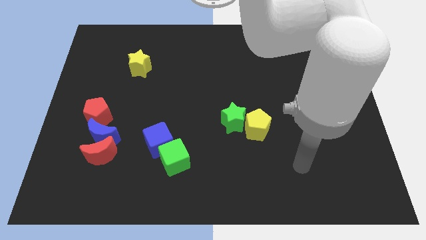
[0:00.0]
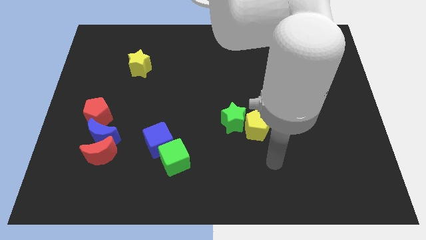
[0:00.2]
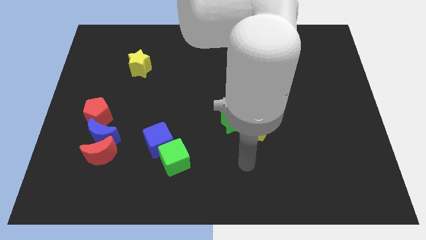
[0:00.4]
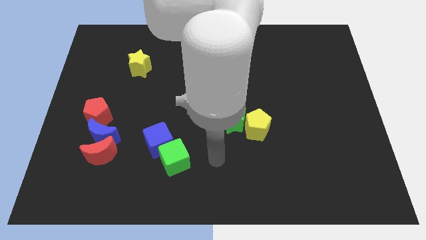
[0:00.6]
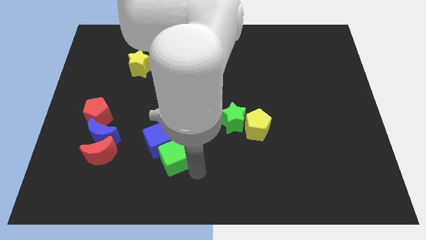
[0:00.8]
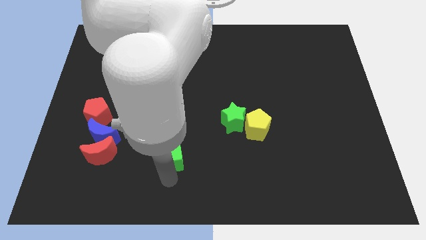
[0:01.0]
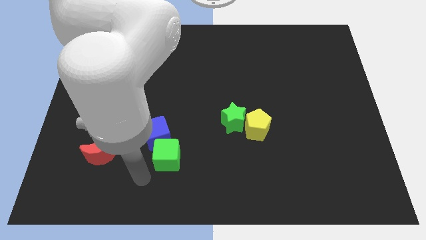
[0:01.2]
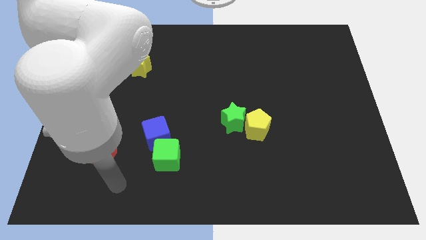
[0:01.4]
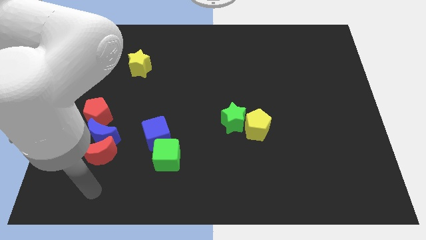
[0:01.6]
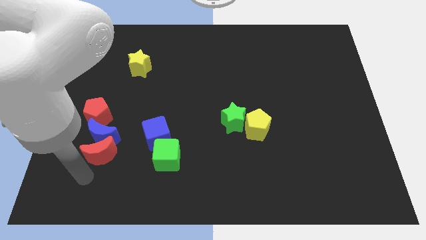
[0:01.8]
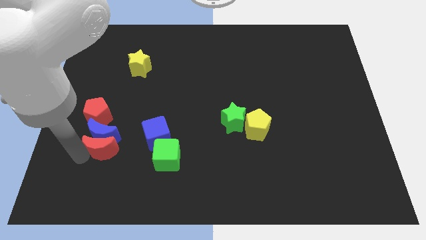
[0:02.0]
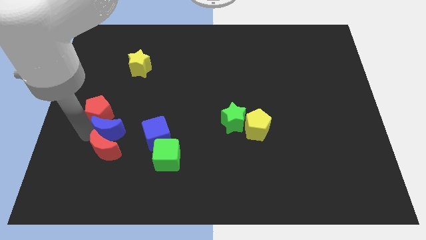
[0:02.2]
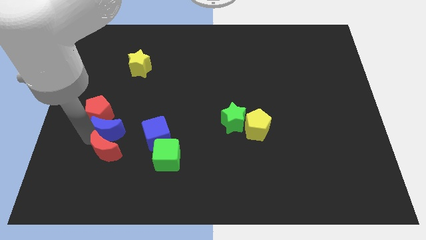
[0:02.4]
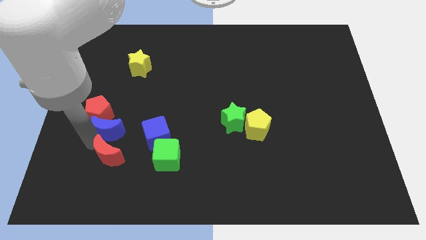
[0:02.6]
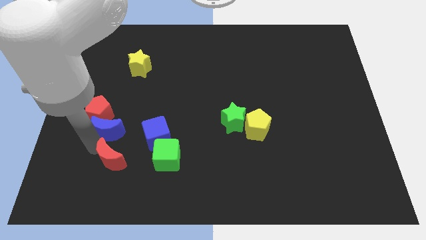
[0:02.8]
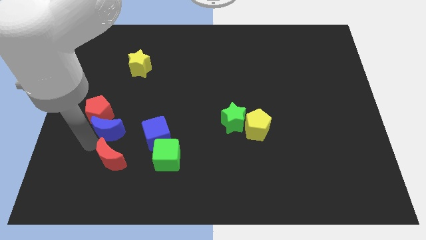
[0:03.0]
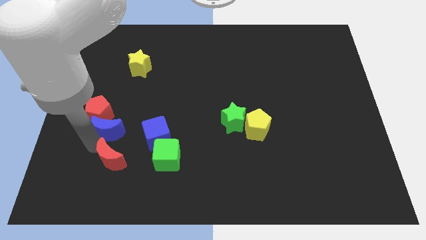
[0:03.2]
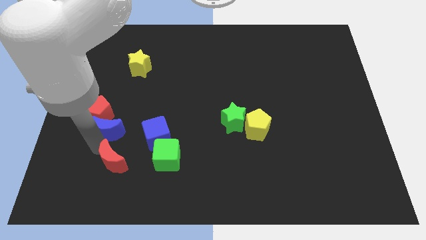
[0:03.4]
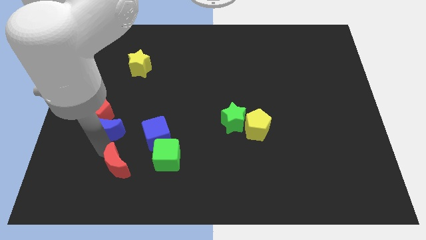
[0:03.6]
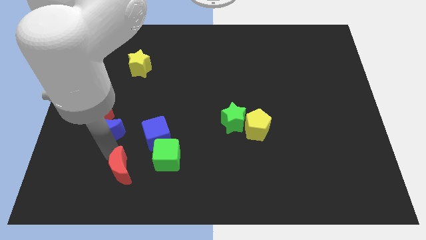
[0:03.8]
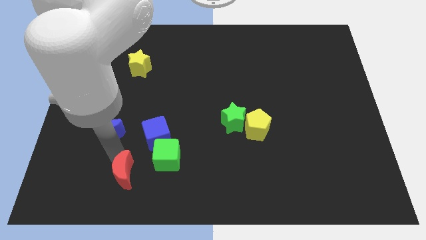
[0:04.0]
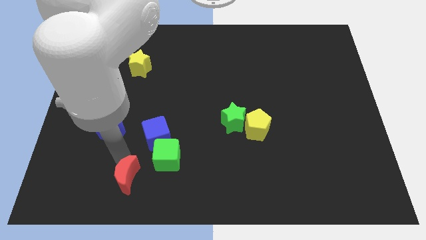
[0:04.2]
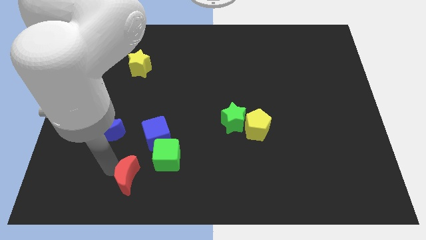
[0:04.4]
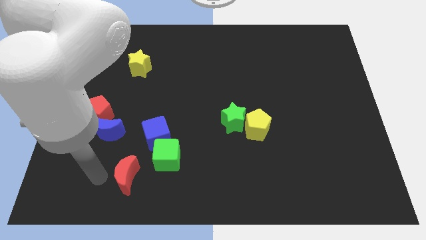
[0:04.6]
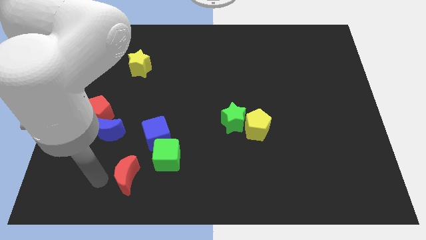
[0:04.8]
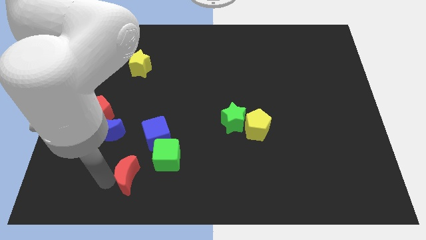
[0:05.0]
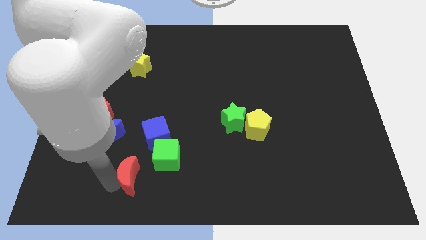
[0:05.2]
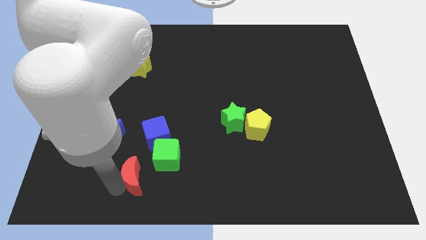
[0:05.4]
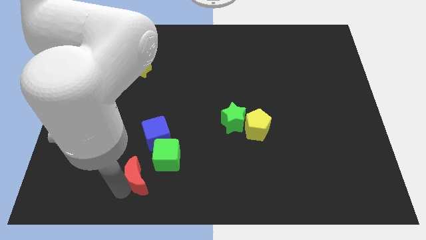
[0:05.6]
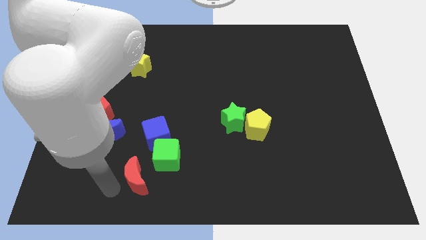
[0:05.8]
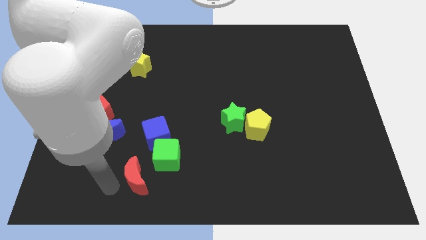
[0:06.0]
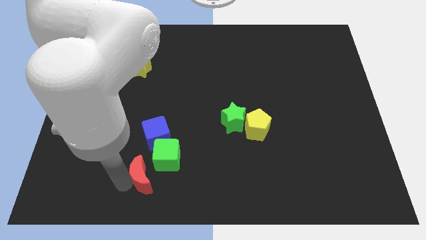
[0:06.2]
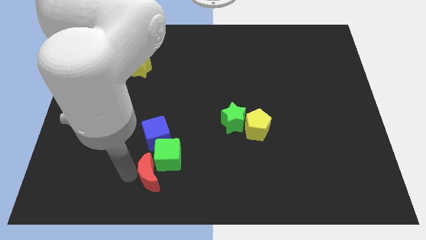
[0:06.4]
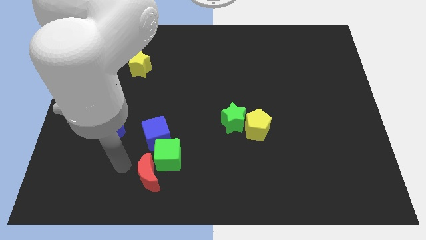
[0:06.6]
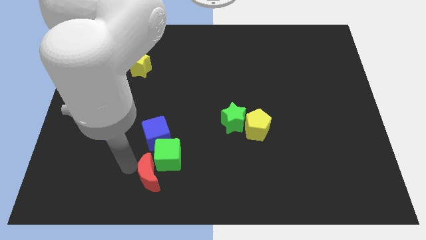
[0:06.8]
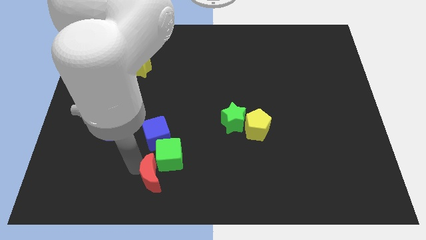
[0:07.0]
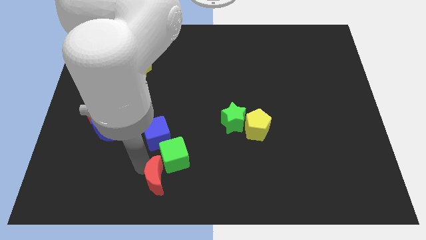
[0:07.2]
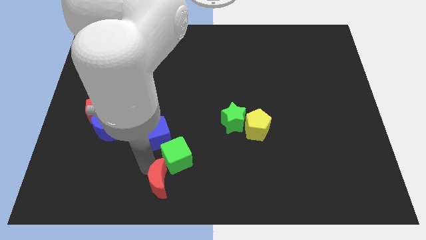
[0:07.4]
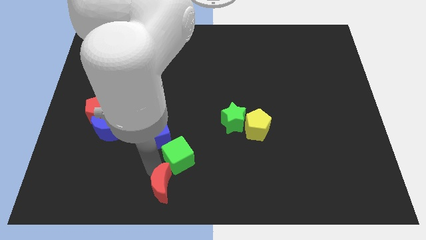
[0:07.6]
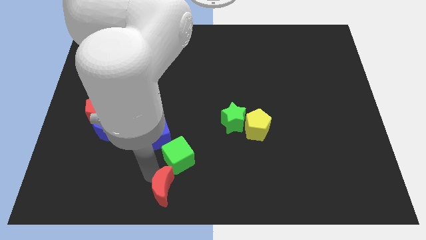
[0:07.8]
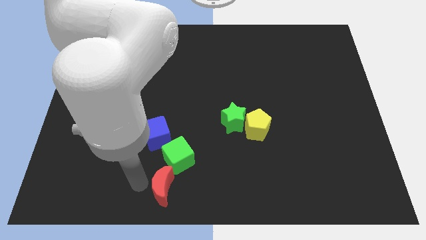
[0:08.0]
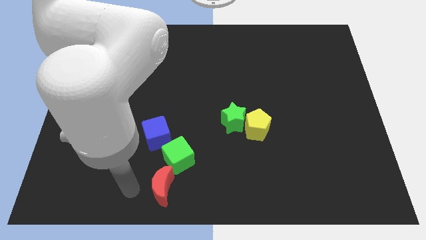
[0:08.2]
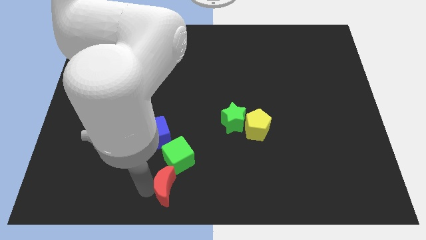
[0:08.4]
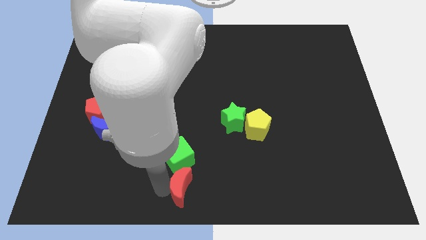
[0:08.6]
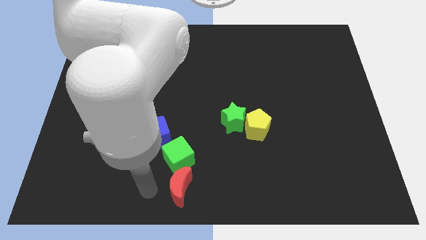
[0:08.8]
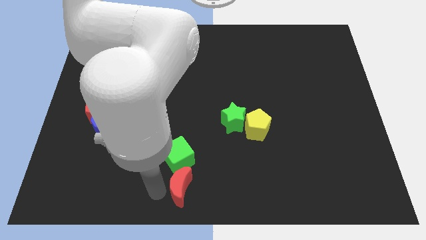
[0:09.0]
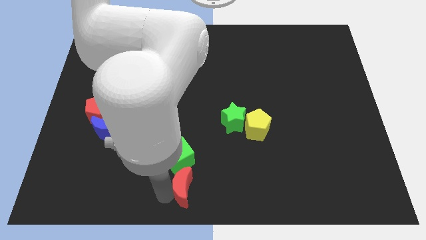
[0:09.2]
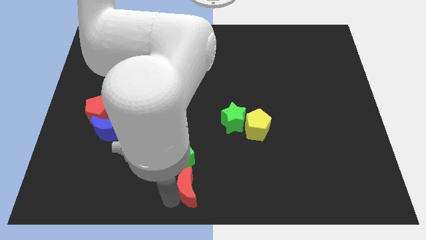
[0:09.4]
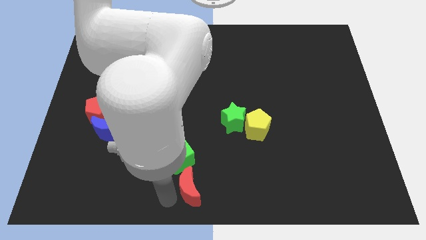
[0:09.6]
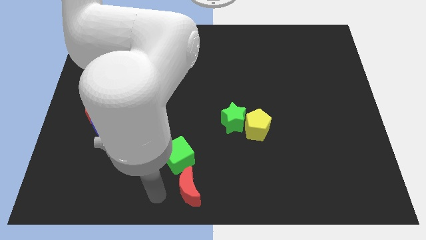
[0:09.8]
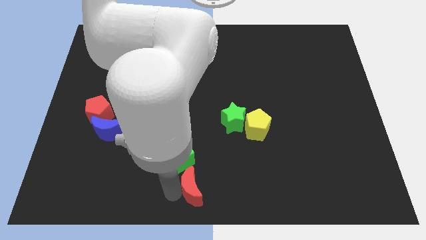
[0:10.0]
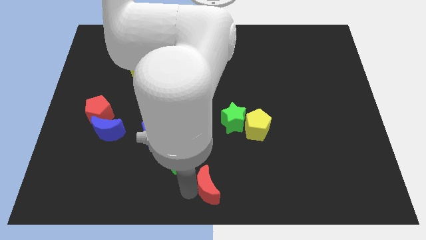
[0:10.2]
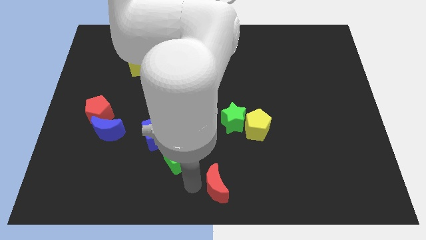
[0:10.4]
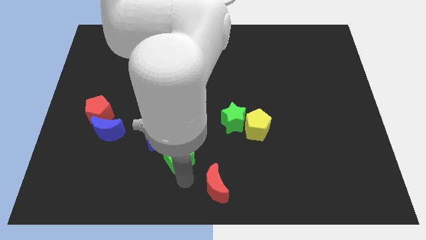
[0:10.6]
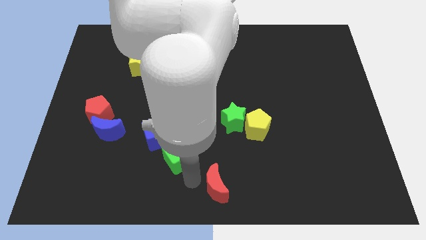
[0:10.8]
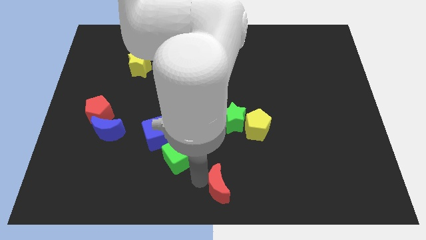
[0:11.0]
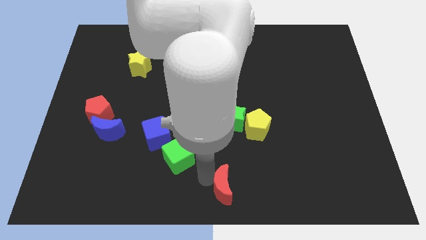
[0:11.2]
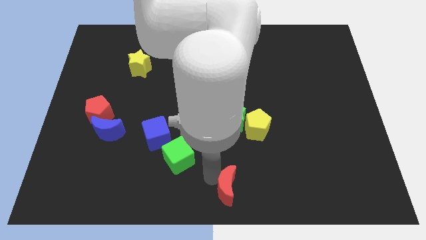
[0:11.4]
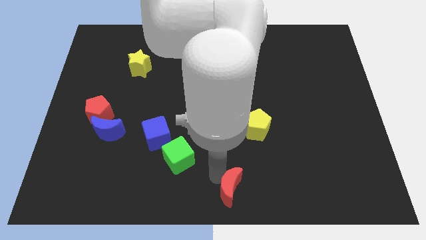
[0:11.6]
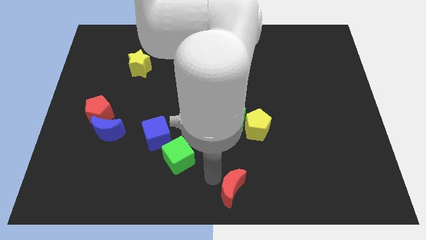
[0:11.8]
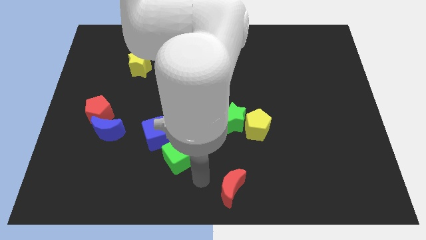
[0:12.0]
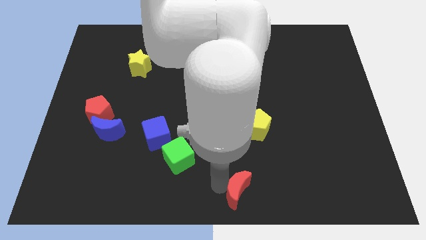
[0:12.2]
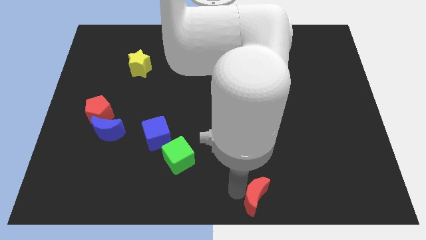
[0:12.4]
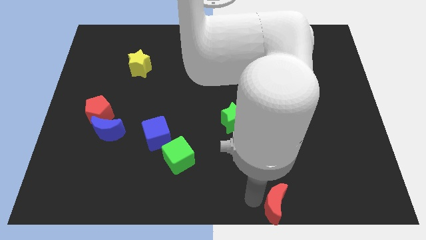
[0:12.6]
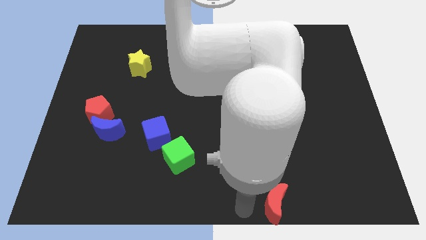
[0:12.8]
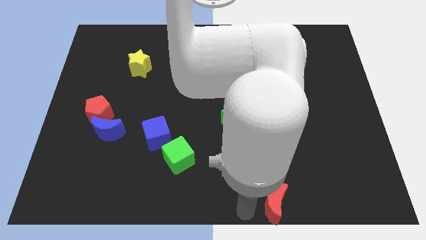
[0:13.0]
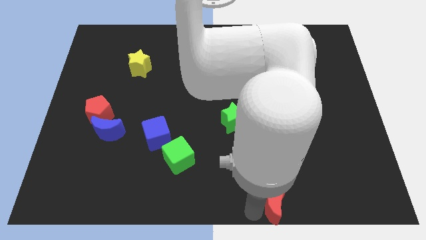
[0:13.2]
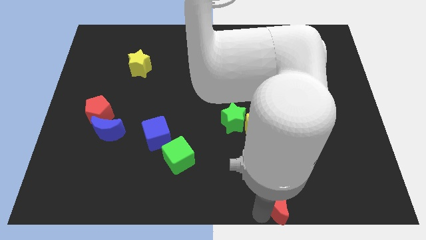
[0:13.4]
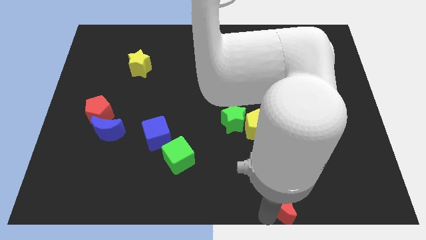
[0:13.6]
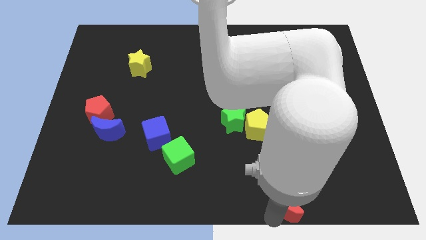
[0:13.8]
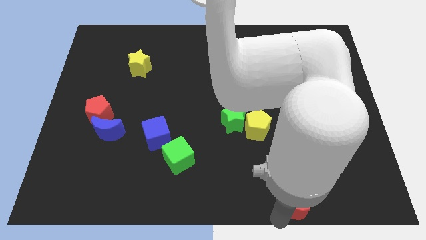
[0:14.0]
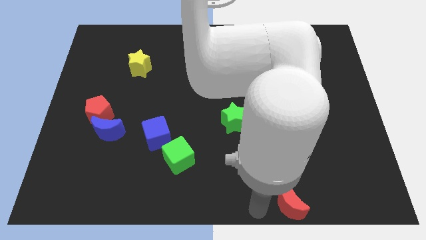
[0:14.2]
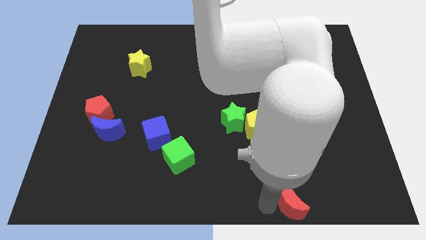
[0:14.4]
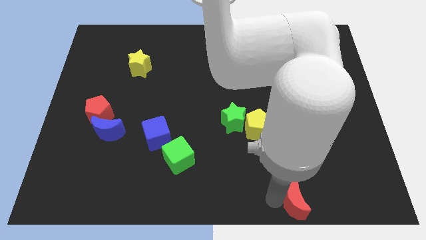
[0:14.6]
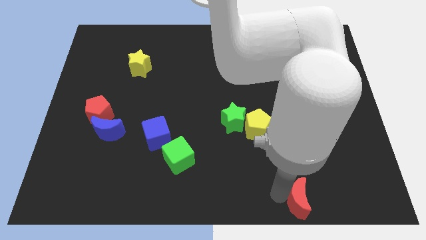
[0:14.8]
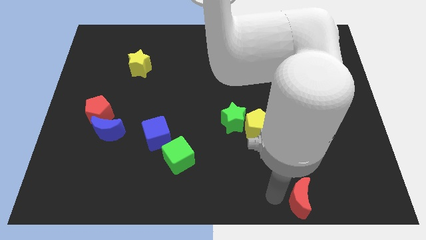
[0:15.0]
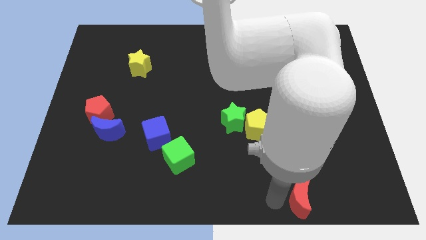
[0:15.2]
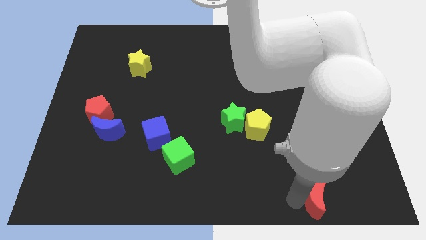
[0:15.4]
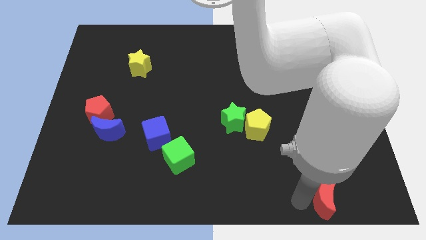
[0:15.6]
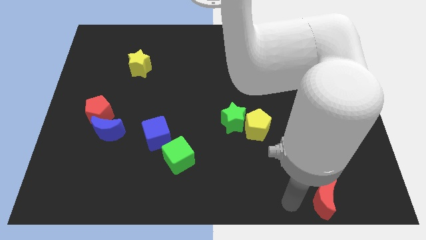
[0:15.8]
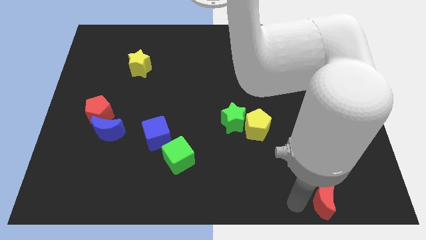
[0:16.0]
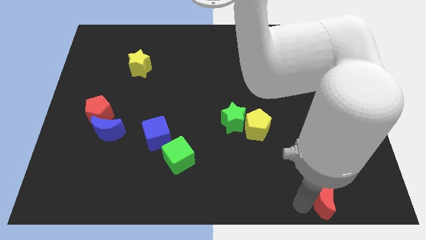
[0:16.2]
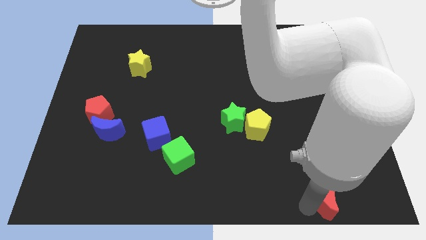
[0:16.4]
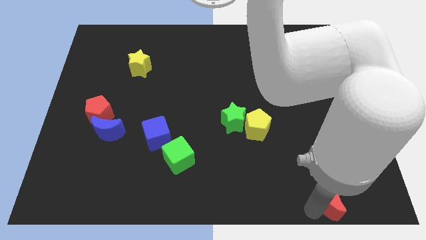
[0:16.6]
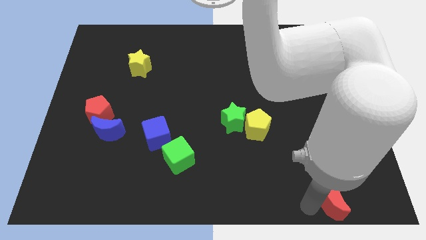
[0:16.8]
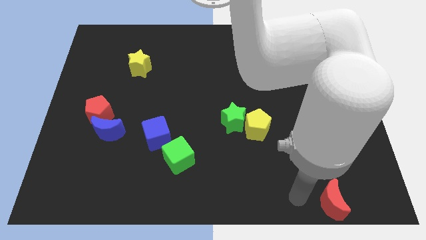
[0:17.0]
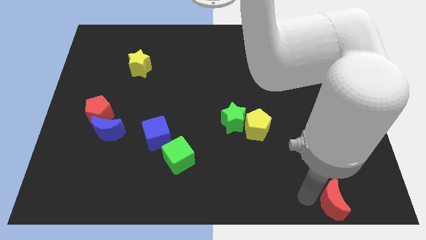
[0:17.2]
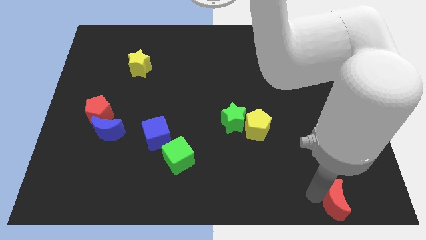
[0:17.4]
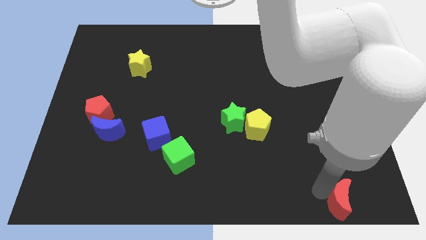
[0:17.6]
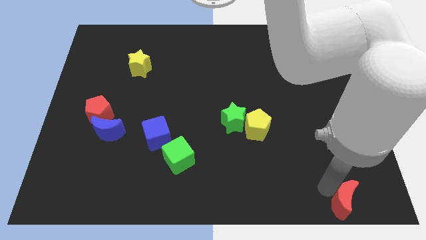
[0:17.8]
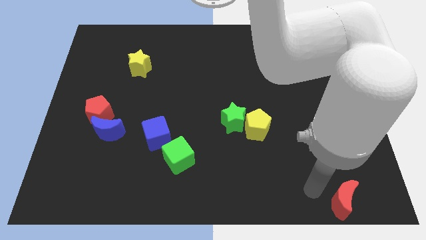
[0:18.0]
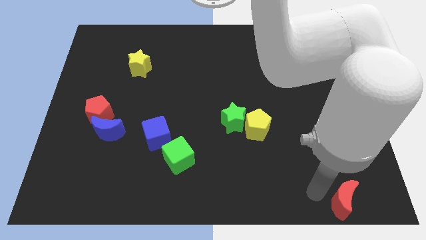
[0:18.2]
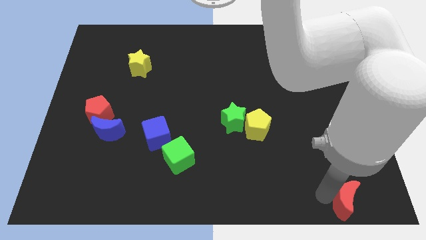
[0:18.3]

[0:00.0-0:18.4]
move the red moon to the lower right corner
